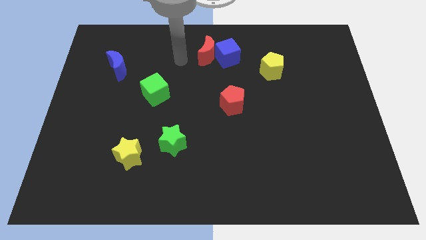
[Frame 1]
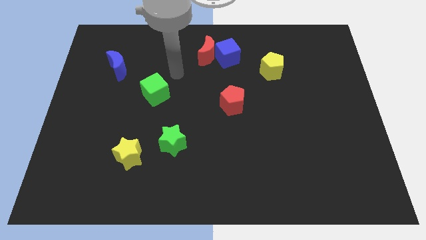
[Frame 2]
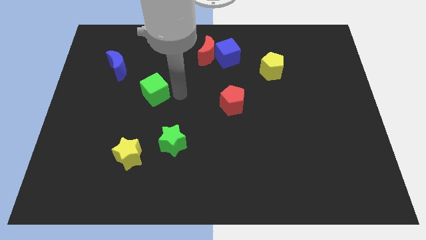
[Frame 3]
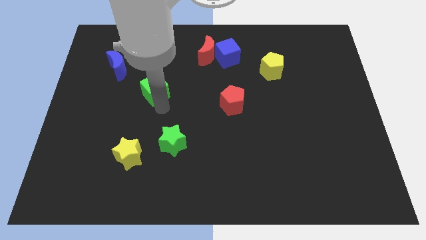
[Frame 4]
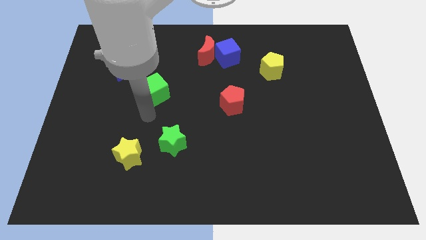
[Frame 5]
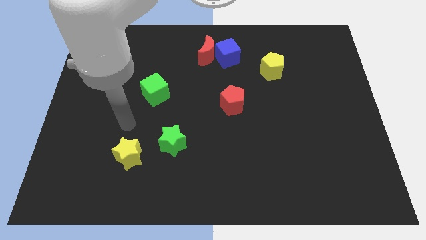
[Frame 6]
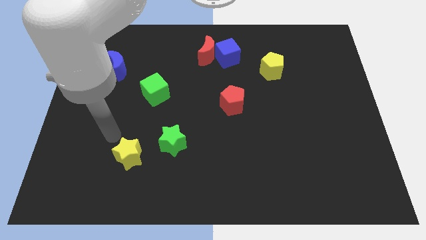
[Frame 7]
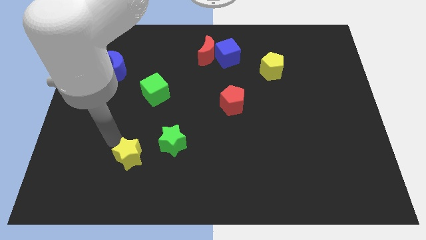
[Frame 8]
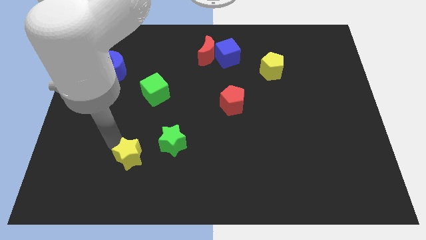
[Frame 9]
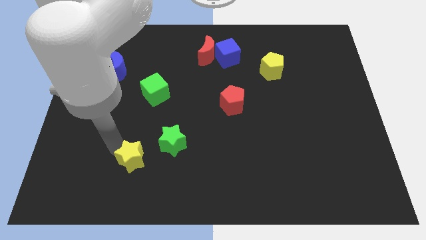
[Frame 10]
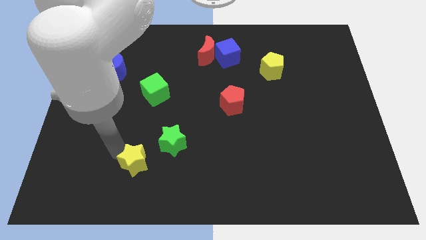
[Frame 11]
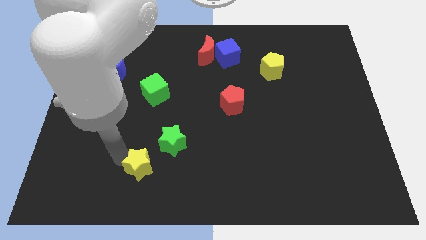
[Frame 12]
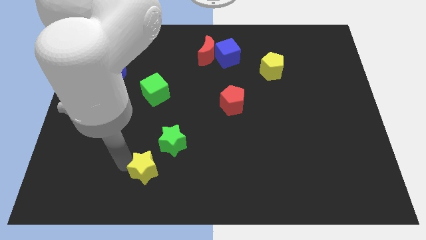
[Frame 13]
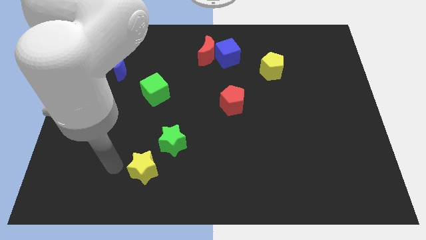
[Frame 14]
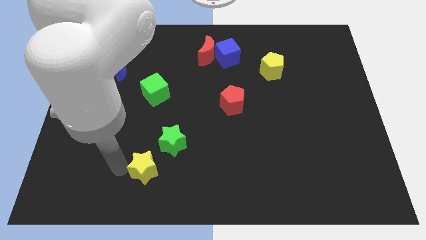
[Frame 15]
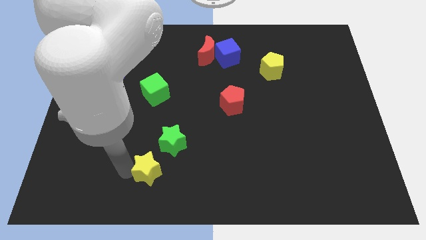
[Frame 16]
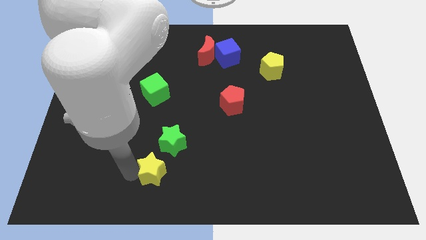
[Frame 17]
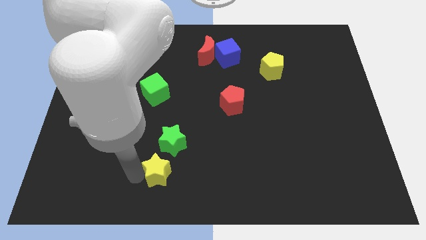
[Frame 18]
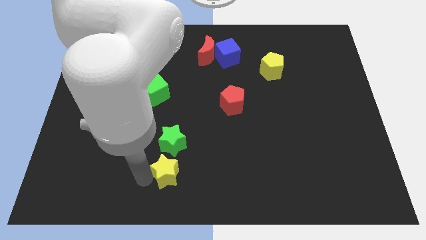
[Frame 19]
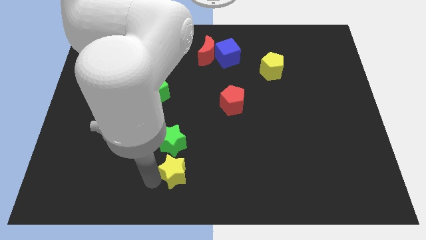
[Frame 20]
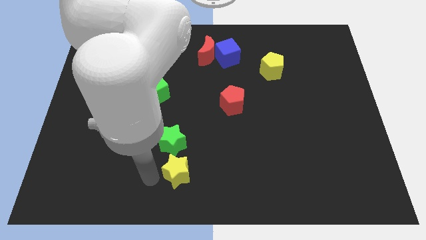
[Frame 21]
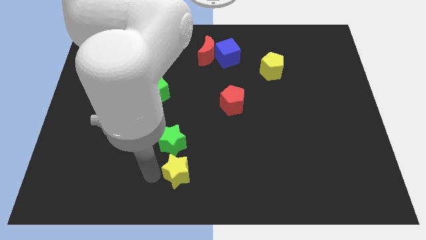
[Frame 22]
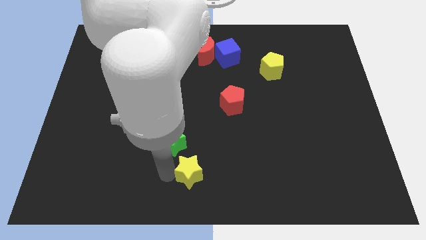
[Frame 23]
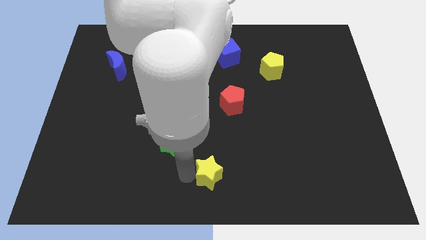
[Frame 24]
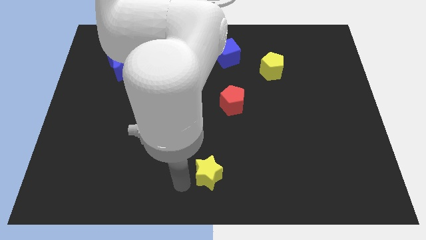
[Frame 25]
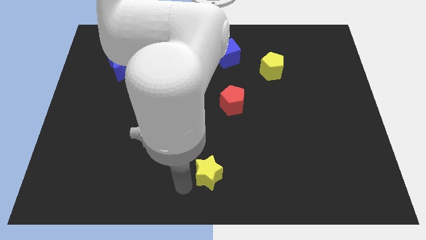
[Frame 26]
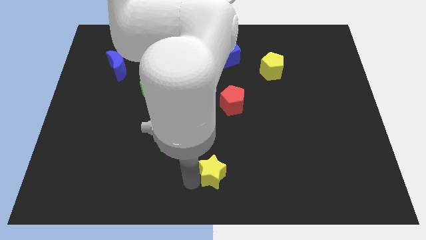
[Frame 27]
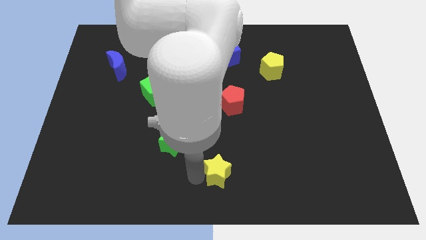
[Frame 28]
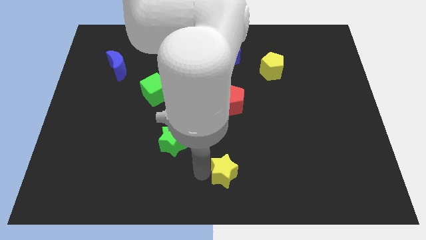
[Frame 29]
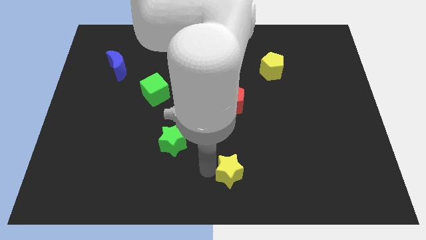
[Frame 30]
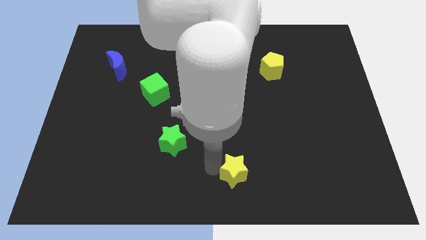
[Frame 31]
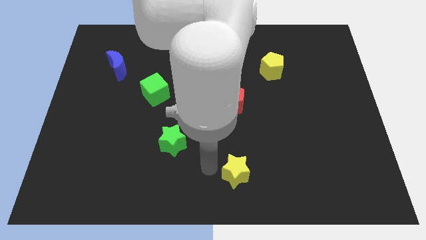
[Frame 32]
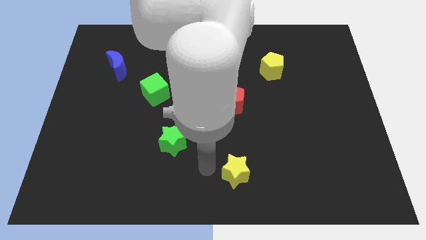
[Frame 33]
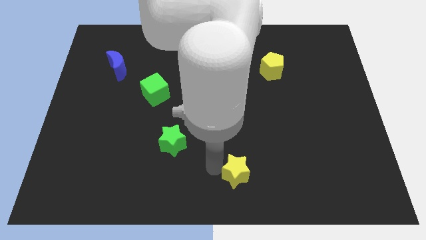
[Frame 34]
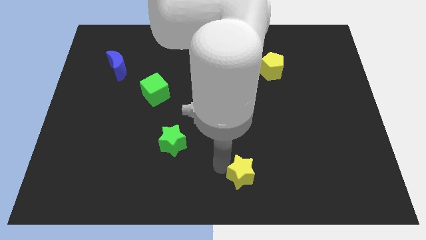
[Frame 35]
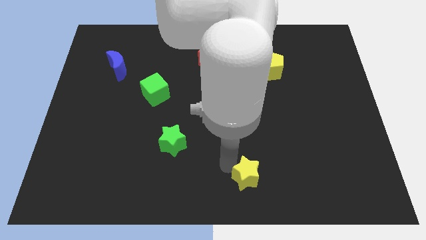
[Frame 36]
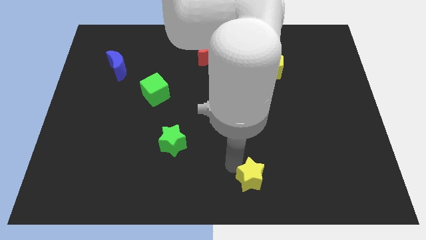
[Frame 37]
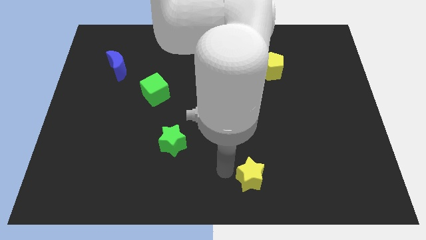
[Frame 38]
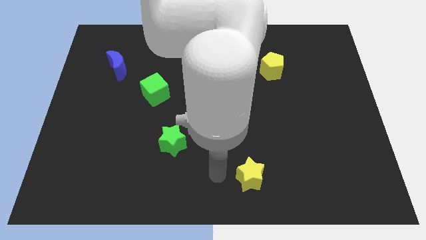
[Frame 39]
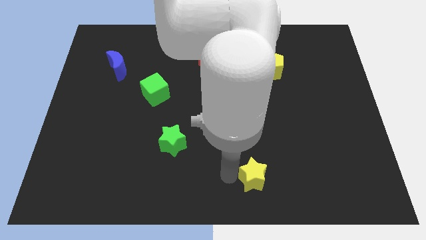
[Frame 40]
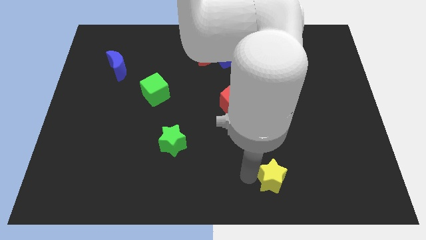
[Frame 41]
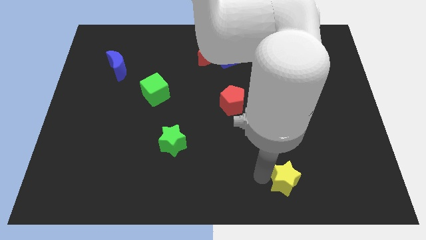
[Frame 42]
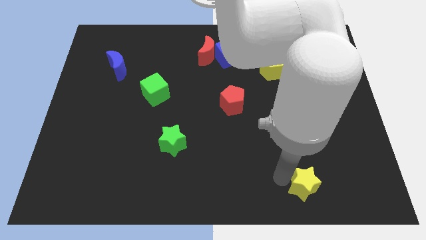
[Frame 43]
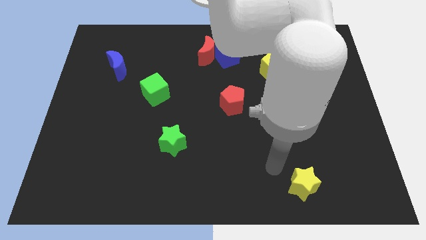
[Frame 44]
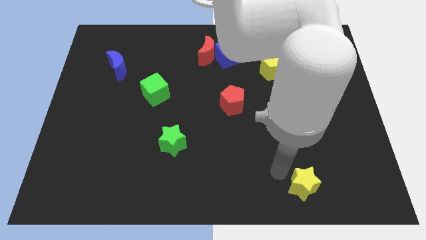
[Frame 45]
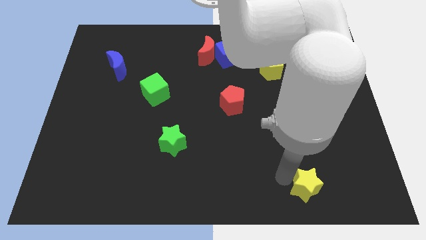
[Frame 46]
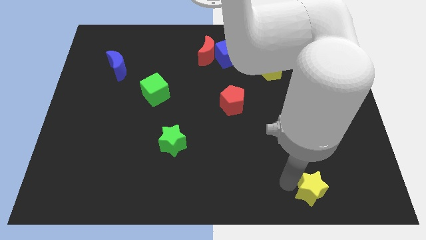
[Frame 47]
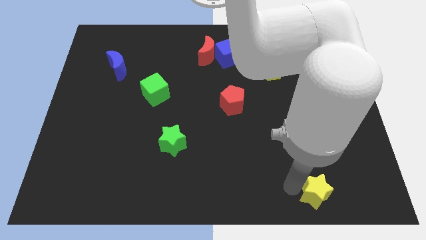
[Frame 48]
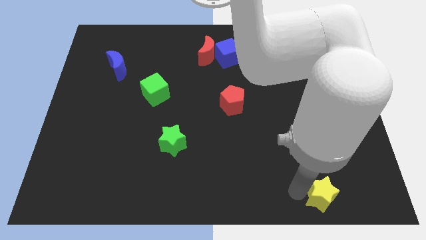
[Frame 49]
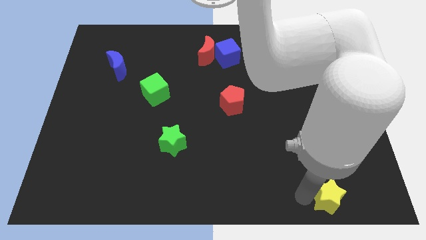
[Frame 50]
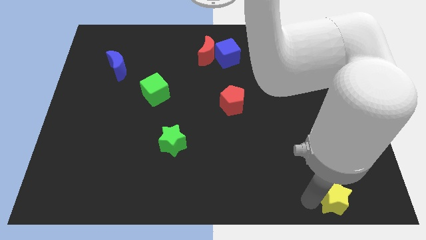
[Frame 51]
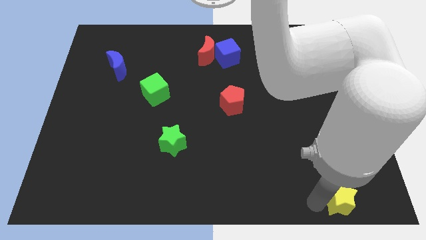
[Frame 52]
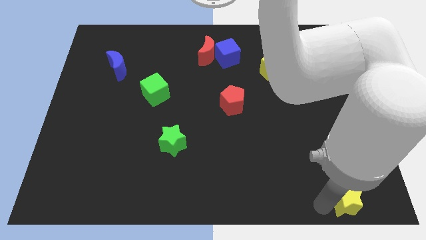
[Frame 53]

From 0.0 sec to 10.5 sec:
move the yellow star to the lower right corner

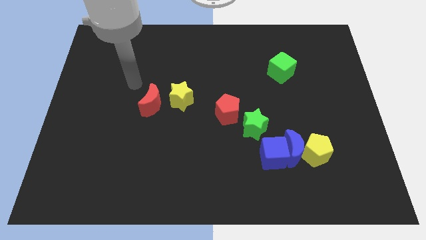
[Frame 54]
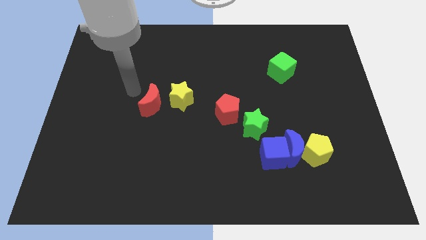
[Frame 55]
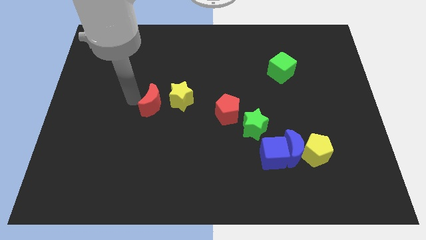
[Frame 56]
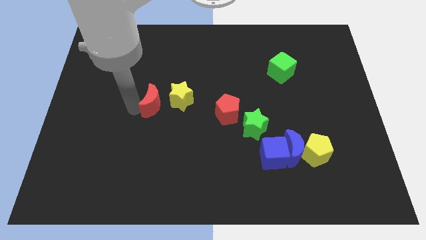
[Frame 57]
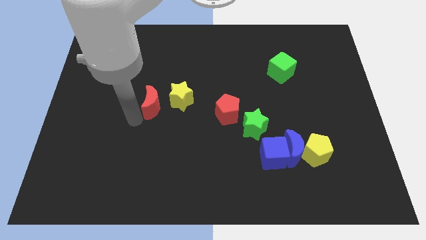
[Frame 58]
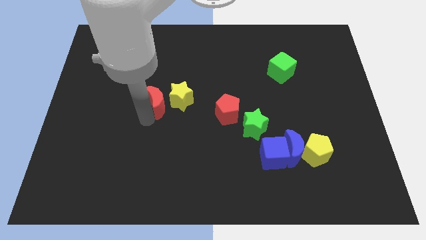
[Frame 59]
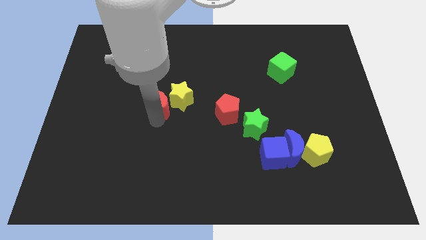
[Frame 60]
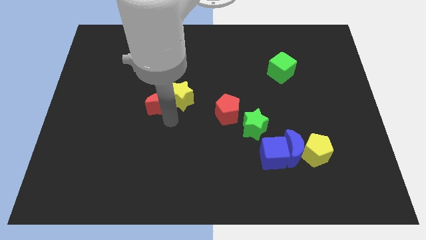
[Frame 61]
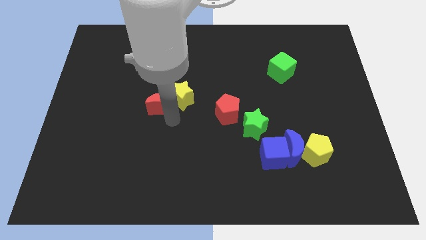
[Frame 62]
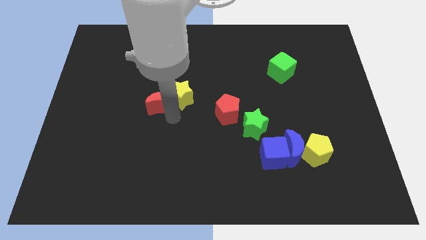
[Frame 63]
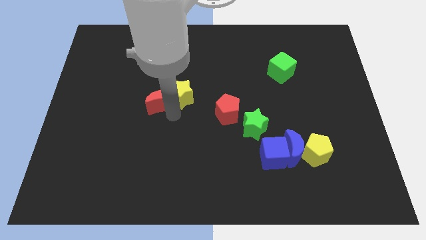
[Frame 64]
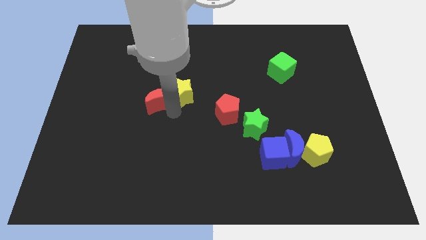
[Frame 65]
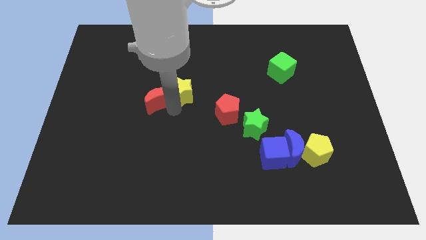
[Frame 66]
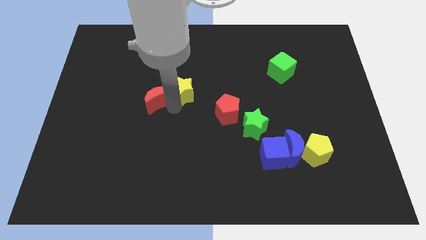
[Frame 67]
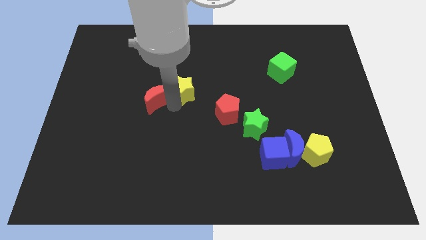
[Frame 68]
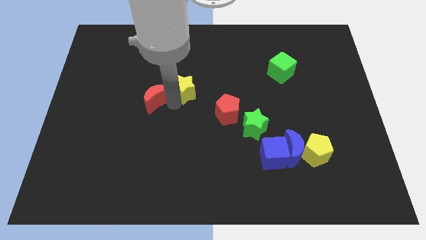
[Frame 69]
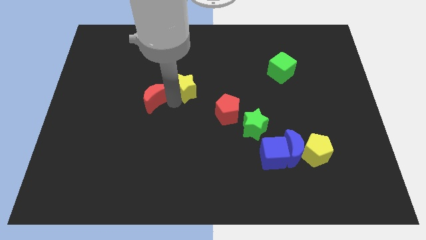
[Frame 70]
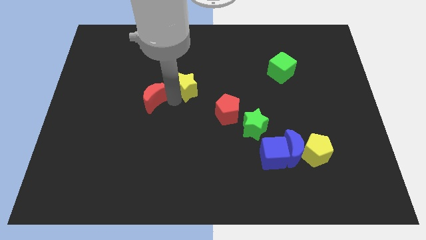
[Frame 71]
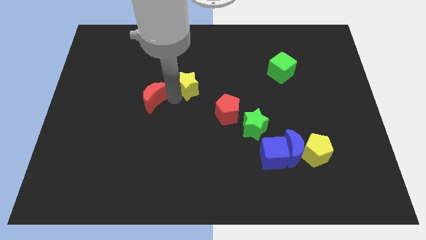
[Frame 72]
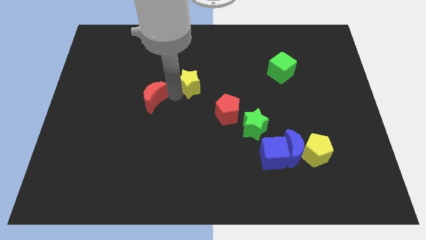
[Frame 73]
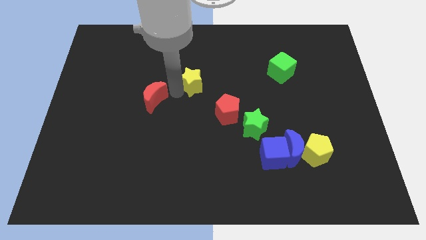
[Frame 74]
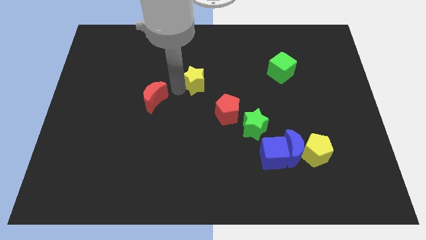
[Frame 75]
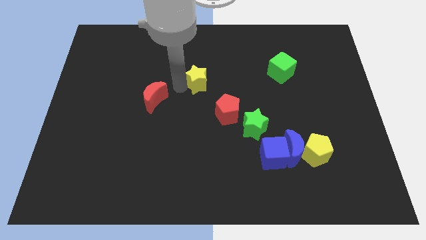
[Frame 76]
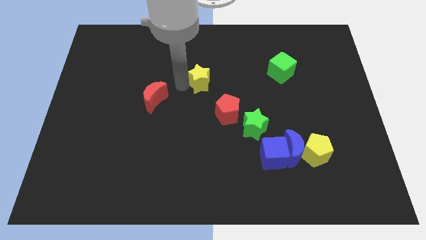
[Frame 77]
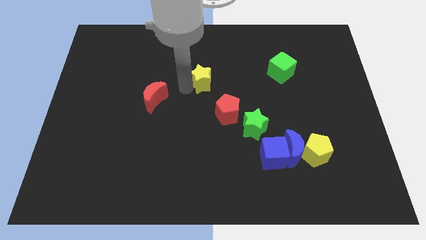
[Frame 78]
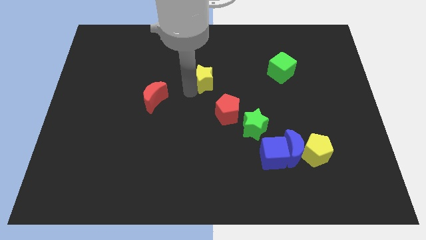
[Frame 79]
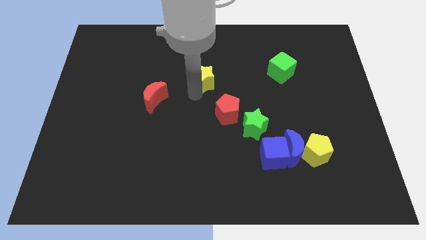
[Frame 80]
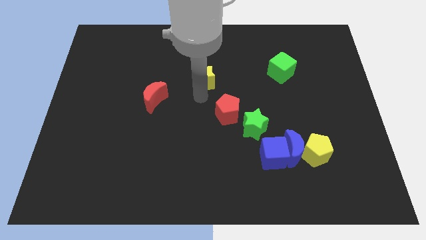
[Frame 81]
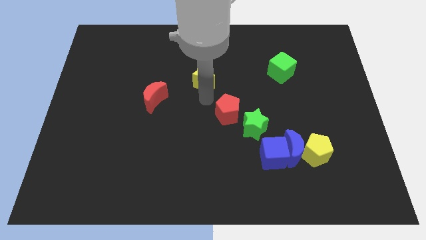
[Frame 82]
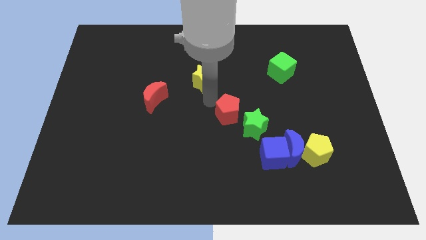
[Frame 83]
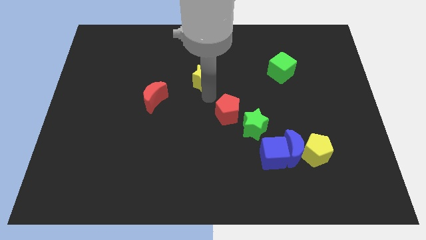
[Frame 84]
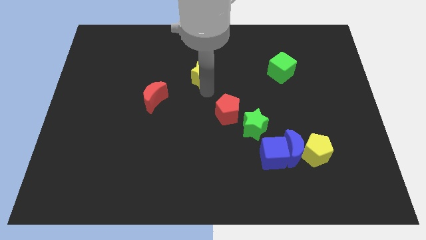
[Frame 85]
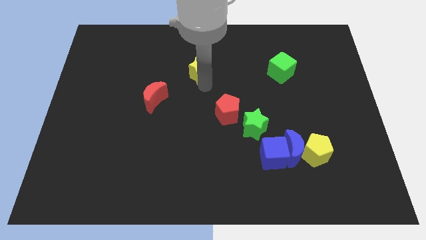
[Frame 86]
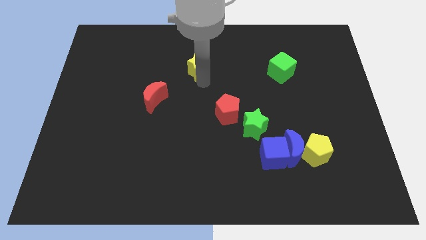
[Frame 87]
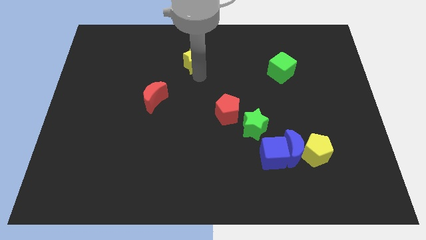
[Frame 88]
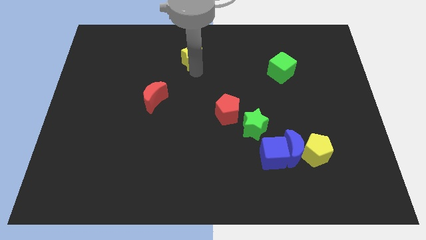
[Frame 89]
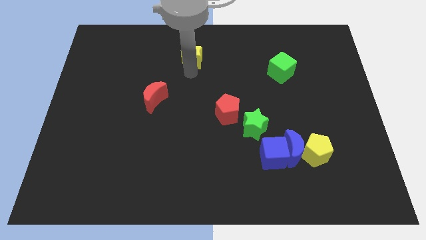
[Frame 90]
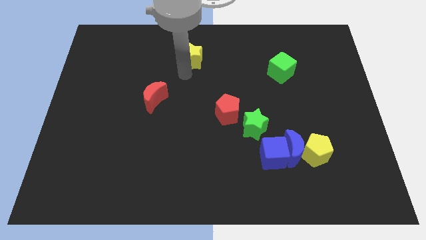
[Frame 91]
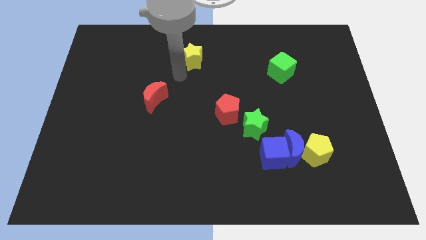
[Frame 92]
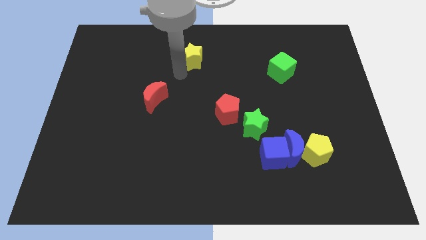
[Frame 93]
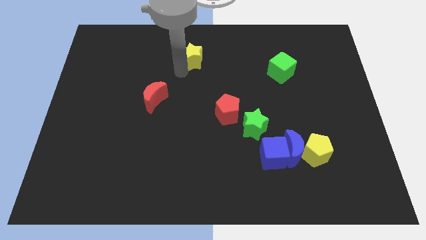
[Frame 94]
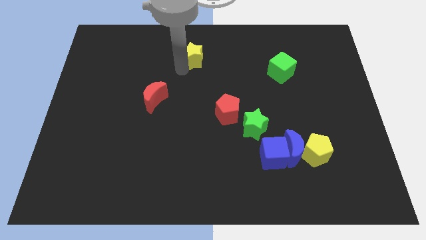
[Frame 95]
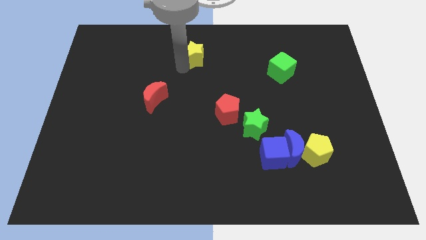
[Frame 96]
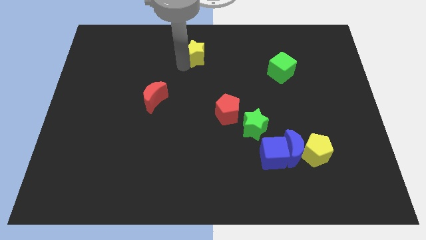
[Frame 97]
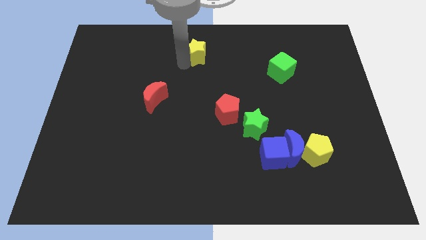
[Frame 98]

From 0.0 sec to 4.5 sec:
push the yellow star to the top side
